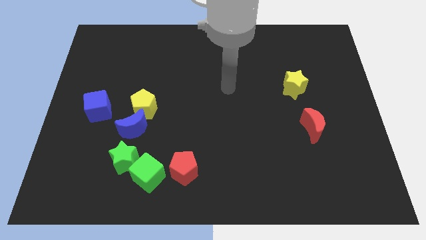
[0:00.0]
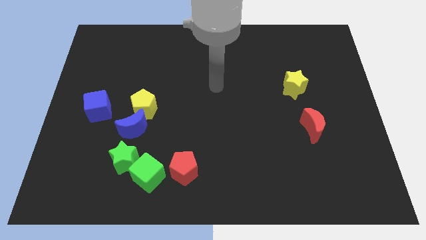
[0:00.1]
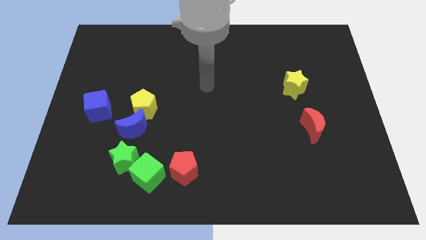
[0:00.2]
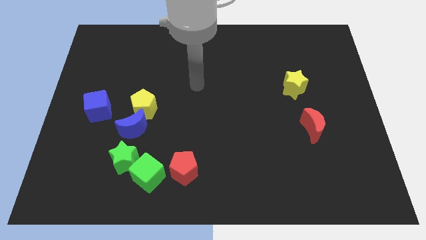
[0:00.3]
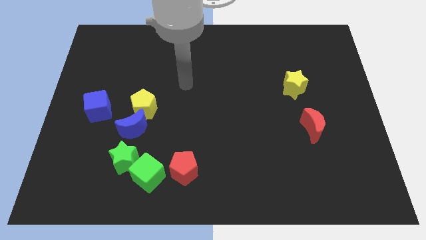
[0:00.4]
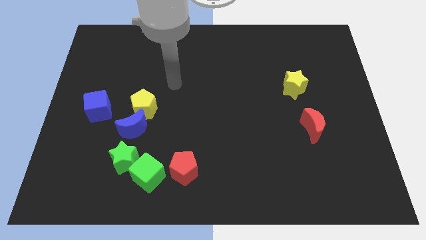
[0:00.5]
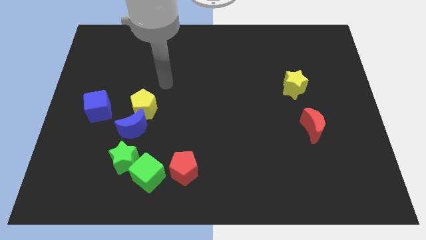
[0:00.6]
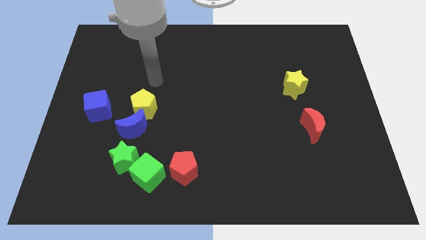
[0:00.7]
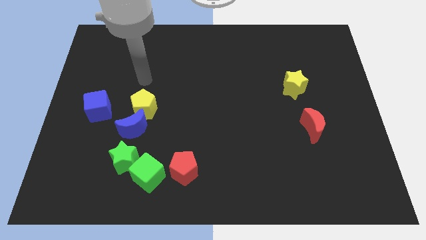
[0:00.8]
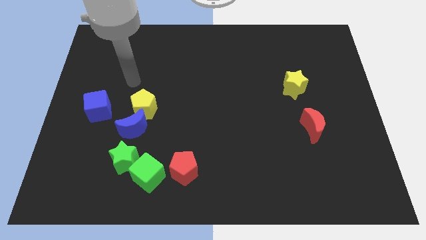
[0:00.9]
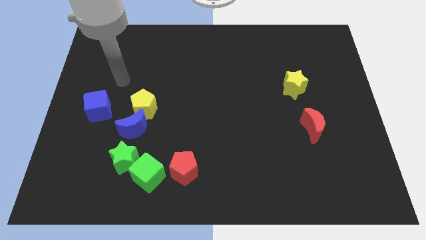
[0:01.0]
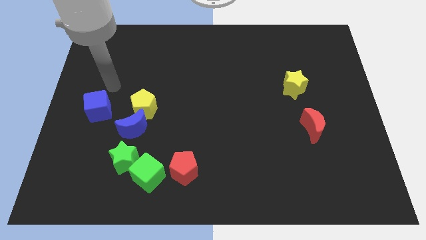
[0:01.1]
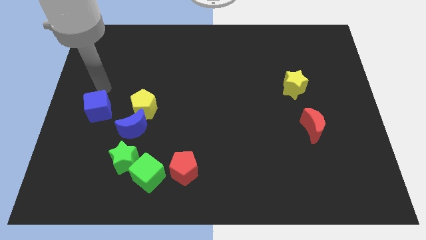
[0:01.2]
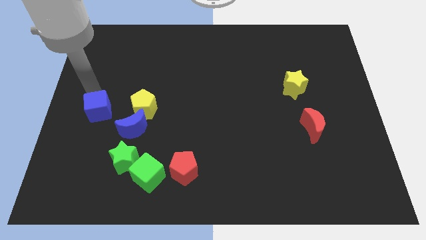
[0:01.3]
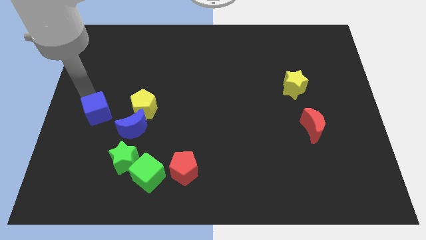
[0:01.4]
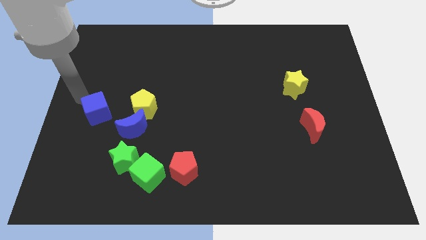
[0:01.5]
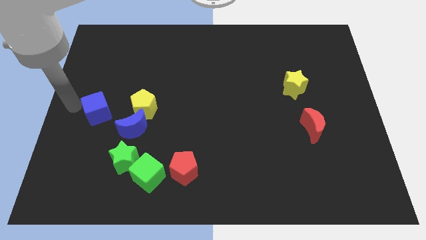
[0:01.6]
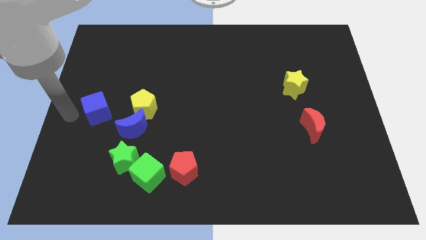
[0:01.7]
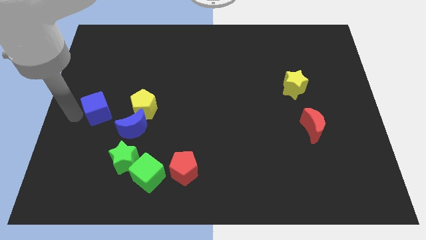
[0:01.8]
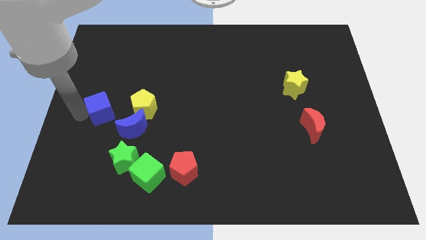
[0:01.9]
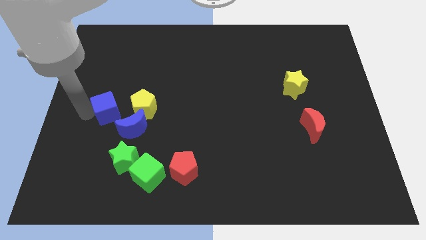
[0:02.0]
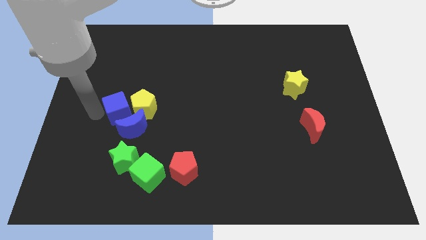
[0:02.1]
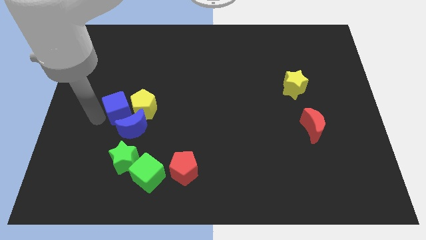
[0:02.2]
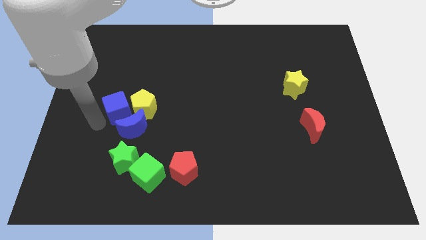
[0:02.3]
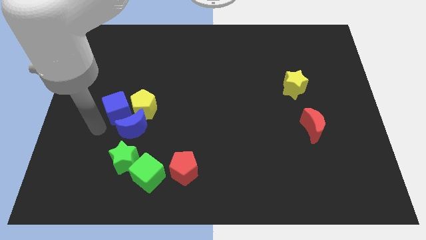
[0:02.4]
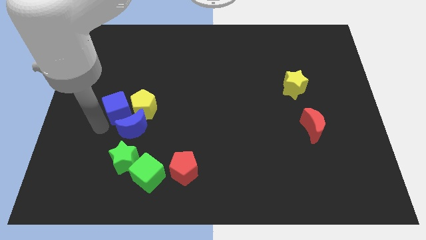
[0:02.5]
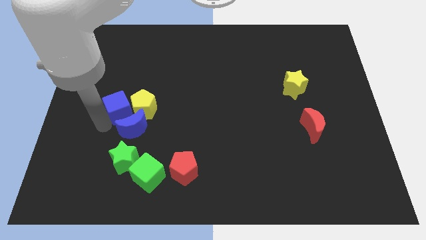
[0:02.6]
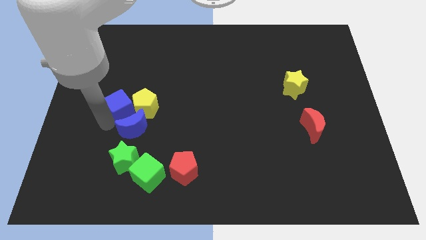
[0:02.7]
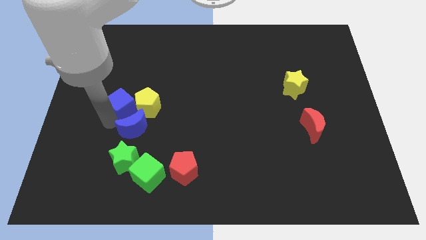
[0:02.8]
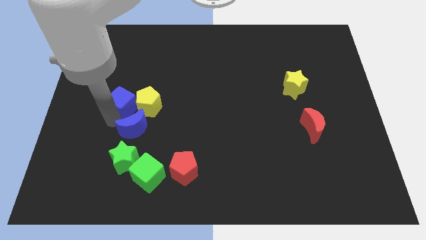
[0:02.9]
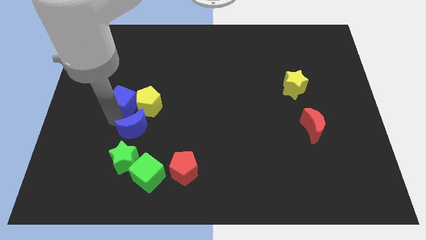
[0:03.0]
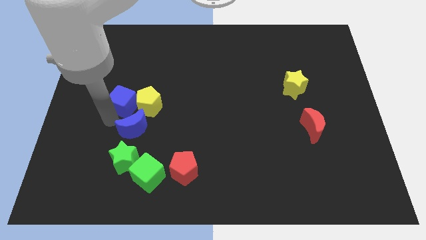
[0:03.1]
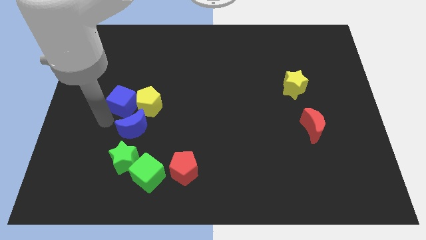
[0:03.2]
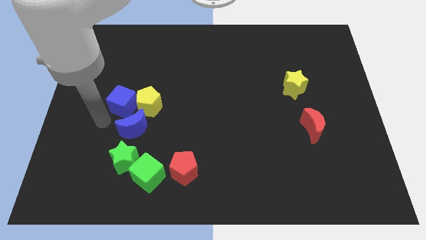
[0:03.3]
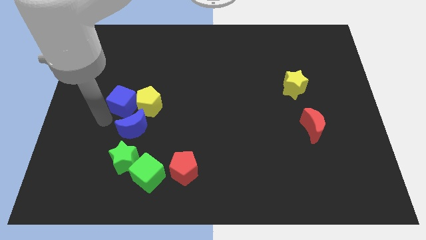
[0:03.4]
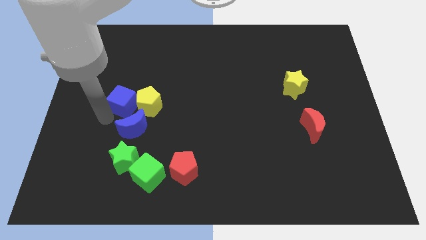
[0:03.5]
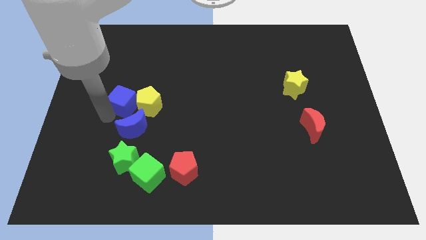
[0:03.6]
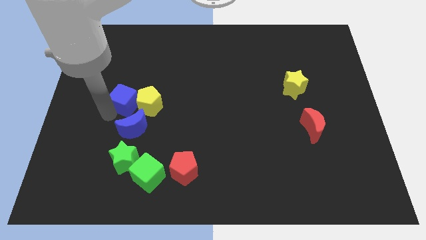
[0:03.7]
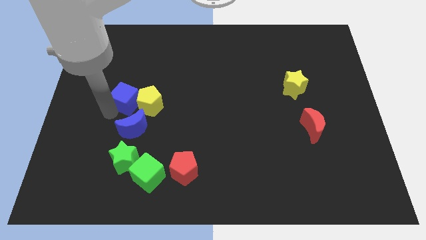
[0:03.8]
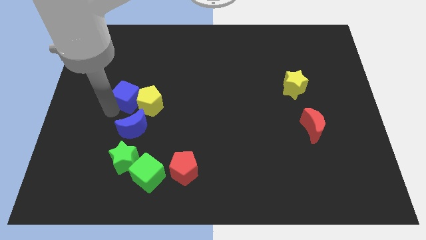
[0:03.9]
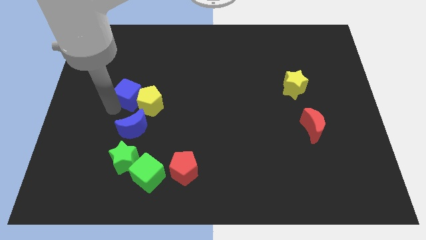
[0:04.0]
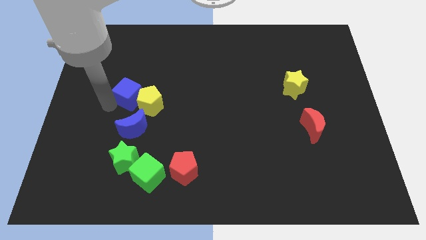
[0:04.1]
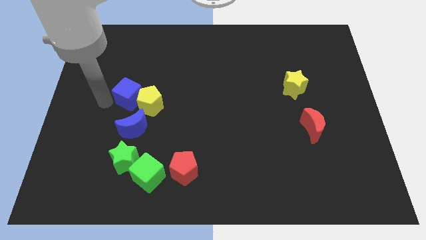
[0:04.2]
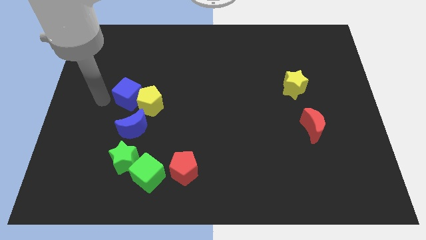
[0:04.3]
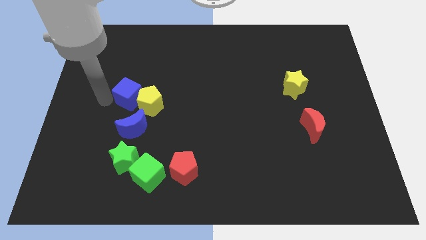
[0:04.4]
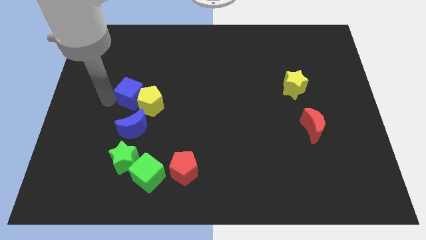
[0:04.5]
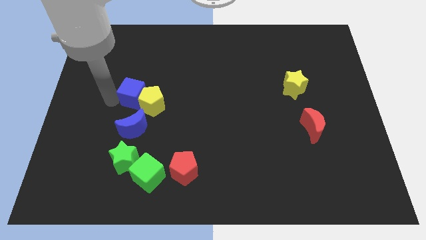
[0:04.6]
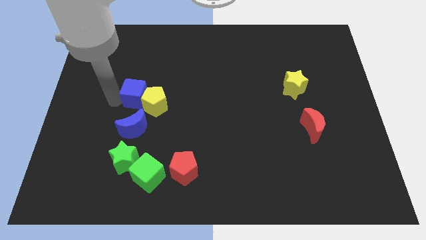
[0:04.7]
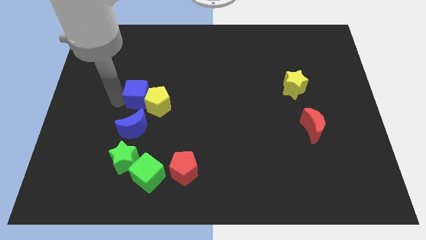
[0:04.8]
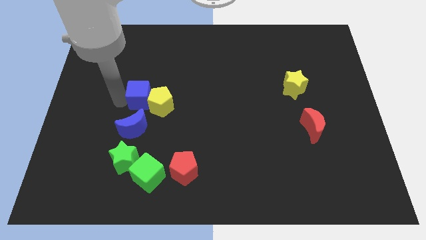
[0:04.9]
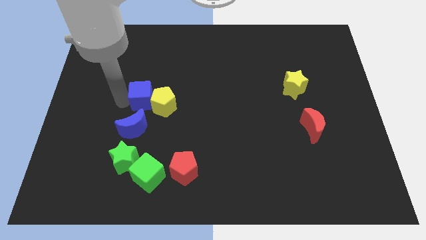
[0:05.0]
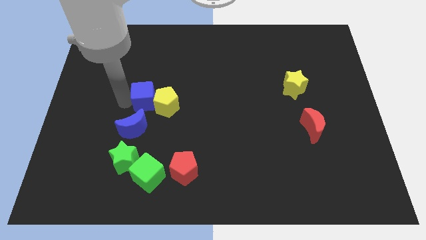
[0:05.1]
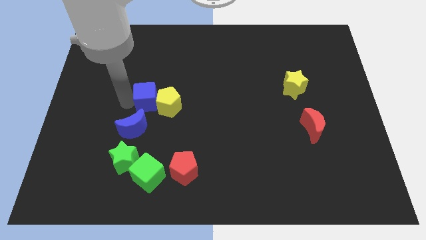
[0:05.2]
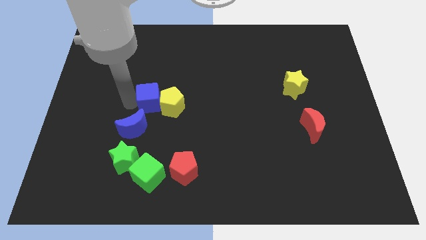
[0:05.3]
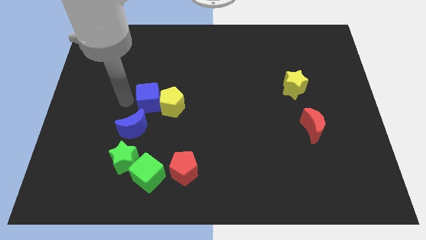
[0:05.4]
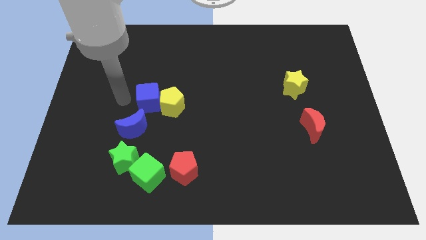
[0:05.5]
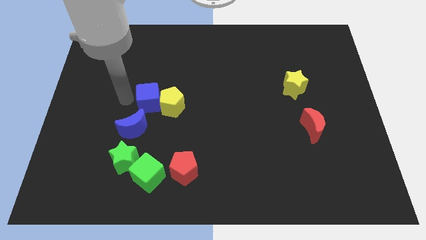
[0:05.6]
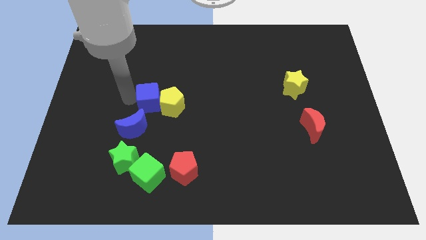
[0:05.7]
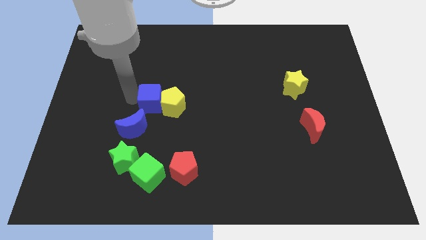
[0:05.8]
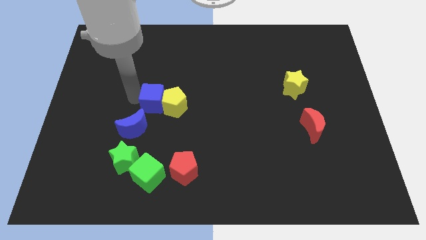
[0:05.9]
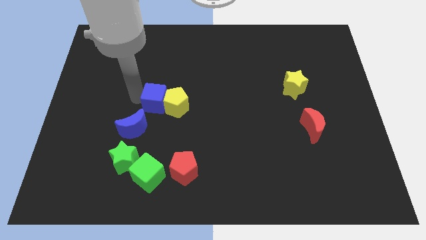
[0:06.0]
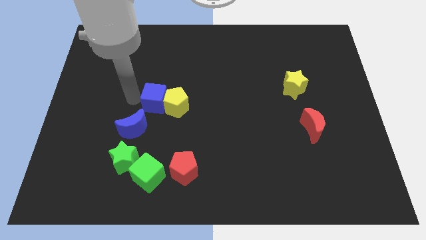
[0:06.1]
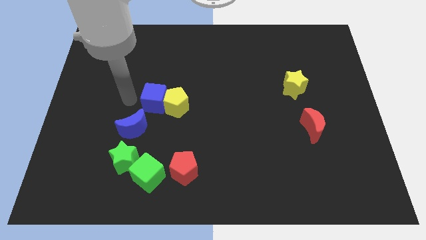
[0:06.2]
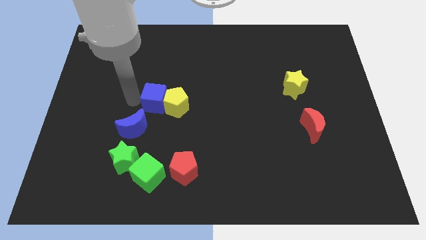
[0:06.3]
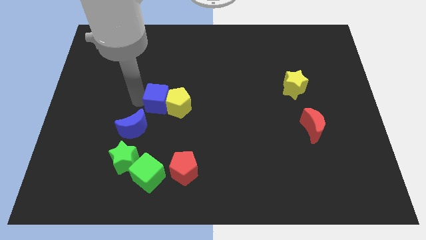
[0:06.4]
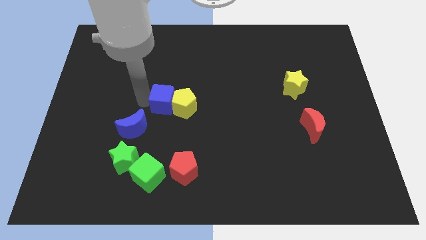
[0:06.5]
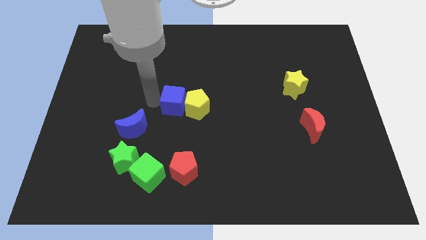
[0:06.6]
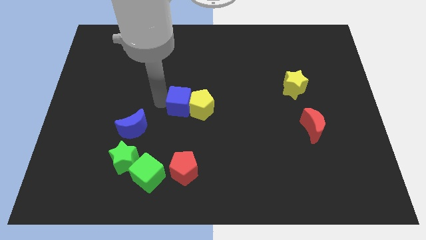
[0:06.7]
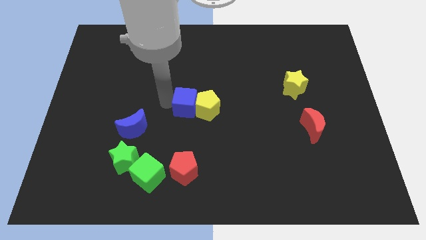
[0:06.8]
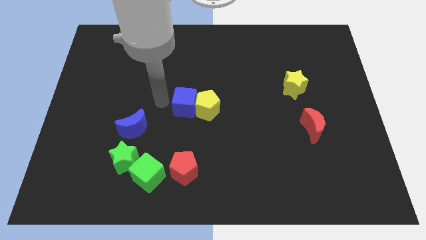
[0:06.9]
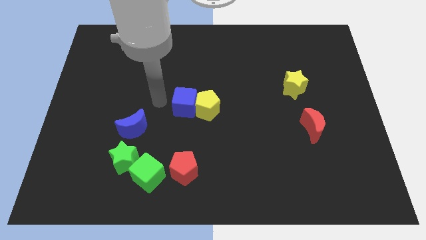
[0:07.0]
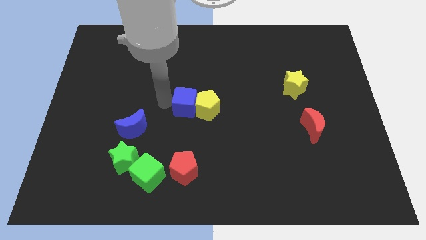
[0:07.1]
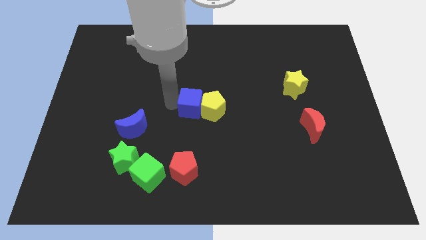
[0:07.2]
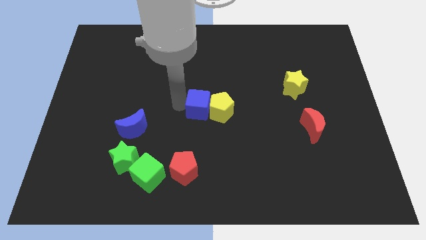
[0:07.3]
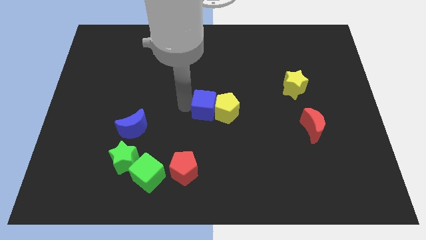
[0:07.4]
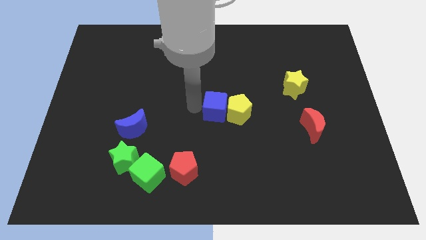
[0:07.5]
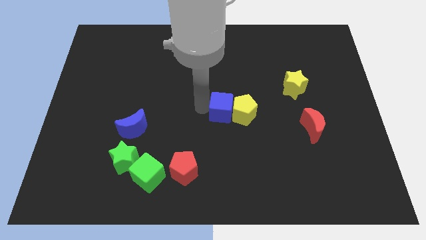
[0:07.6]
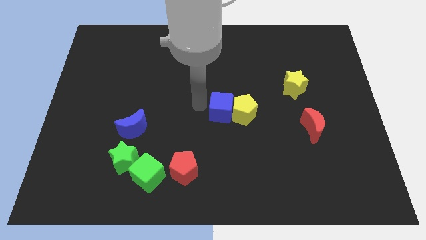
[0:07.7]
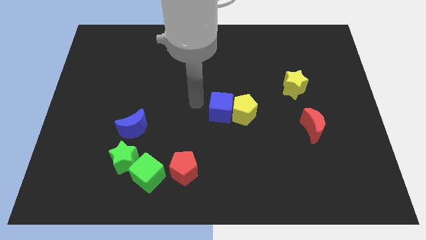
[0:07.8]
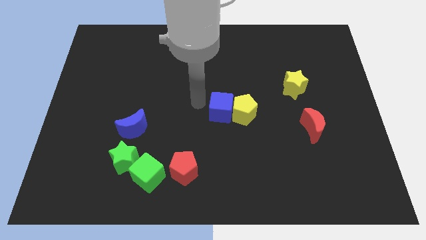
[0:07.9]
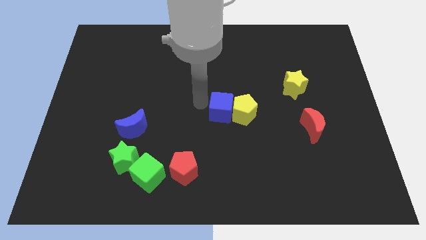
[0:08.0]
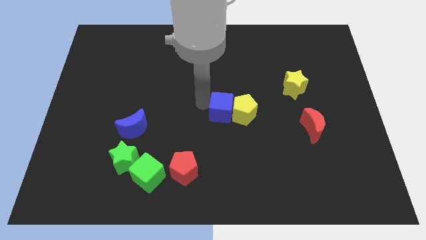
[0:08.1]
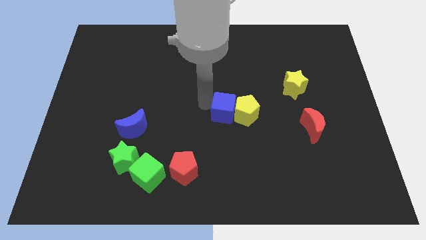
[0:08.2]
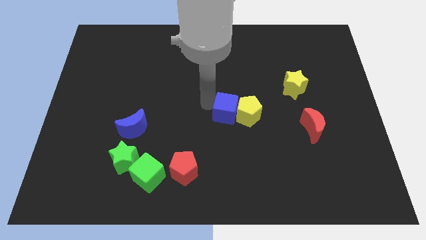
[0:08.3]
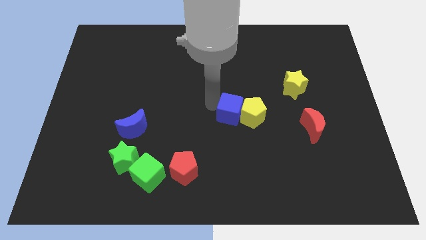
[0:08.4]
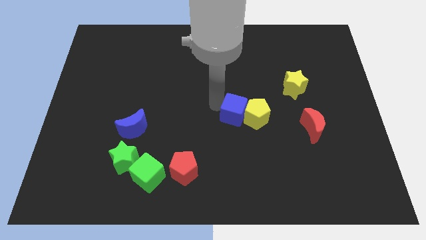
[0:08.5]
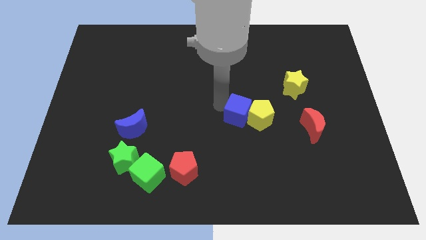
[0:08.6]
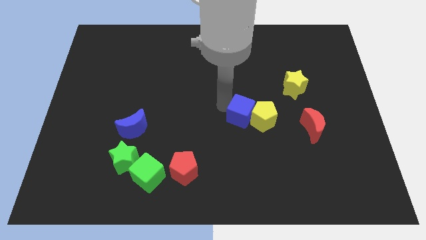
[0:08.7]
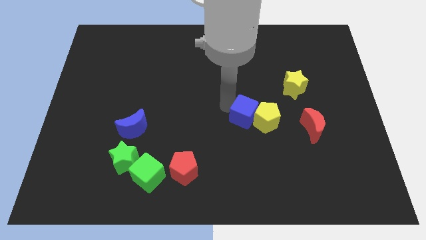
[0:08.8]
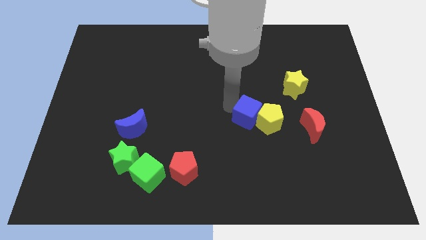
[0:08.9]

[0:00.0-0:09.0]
push the blue cube to the left of the red moon
